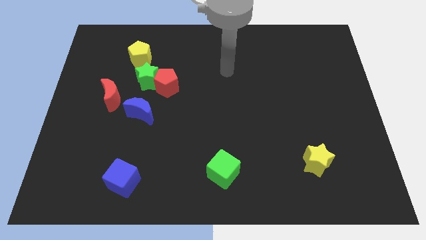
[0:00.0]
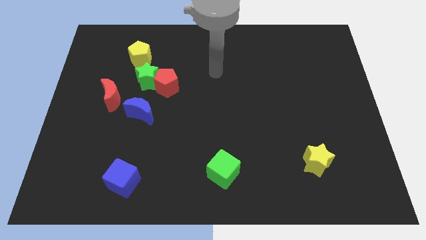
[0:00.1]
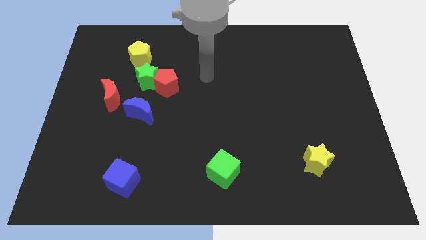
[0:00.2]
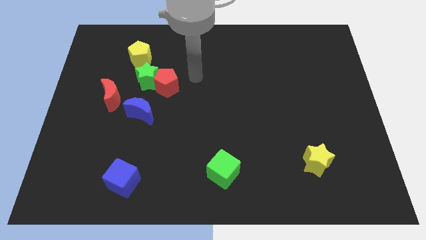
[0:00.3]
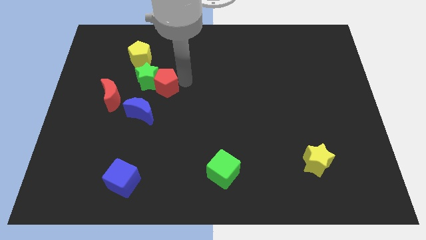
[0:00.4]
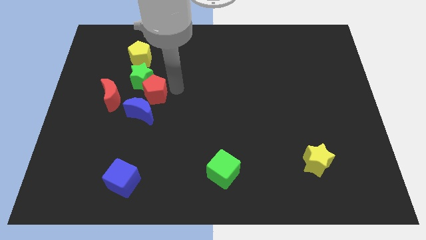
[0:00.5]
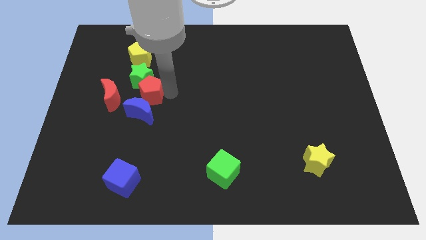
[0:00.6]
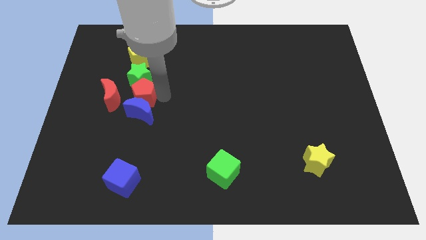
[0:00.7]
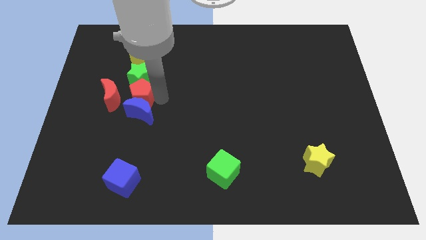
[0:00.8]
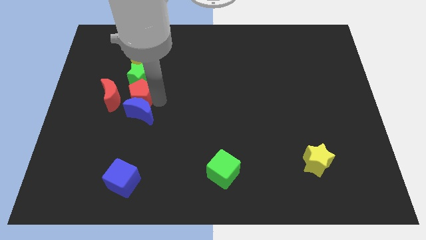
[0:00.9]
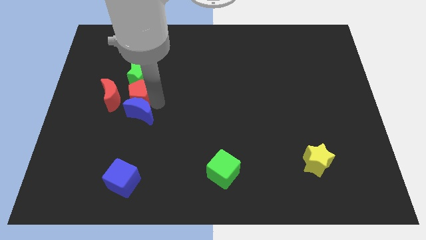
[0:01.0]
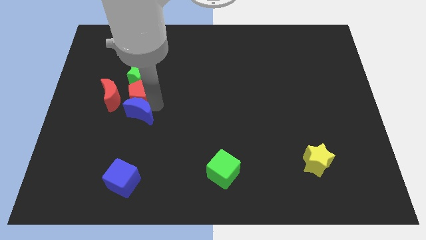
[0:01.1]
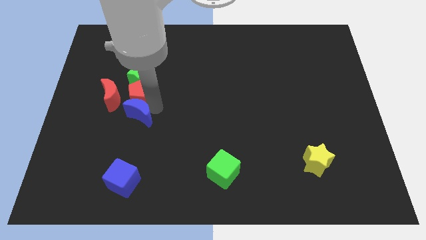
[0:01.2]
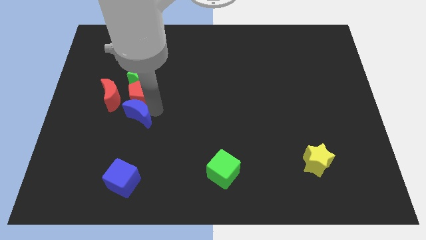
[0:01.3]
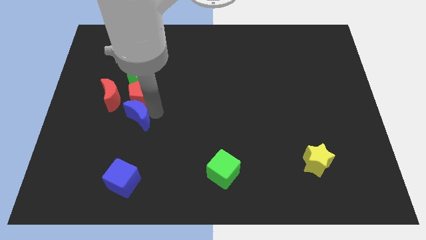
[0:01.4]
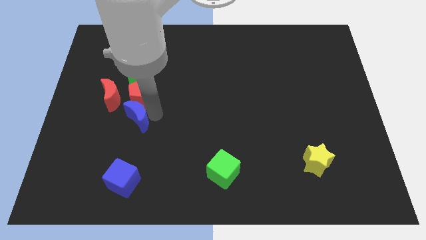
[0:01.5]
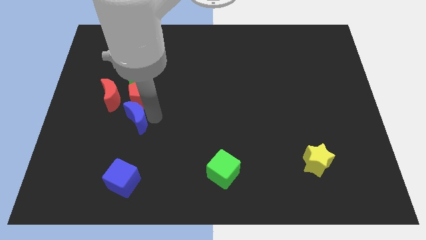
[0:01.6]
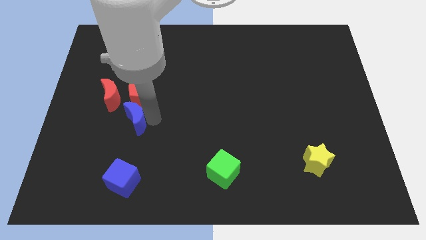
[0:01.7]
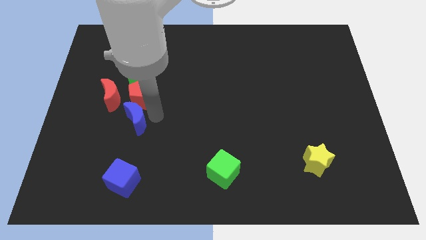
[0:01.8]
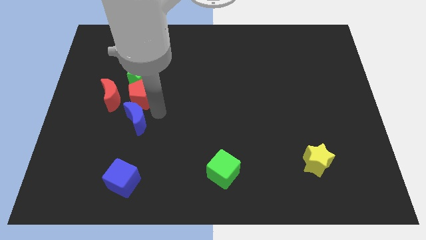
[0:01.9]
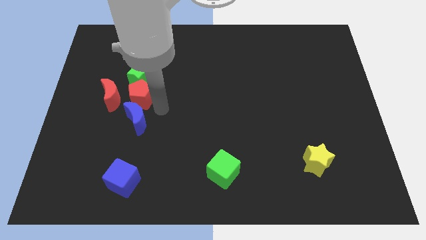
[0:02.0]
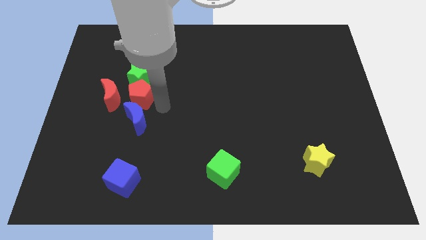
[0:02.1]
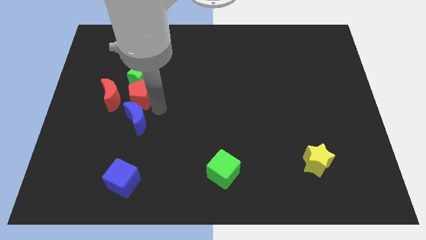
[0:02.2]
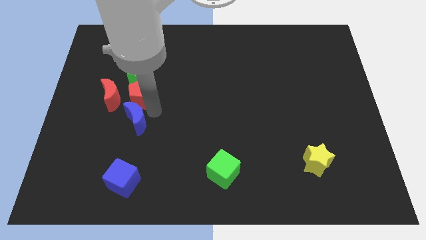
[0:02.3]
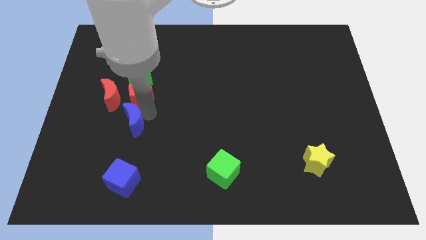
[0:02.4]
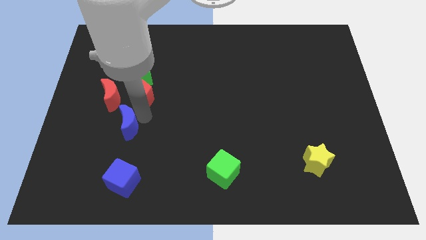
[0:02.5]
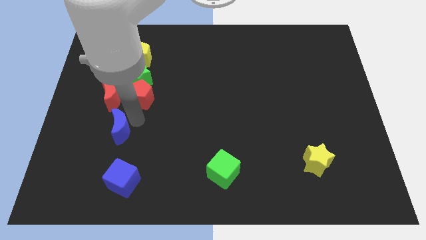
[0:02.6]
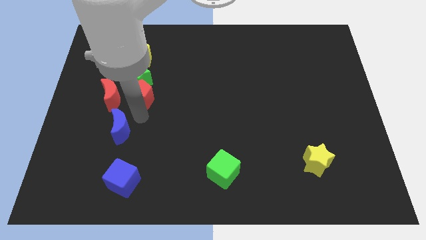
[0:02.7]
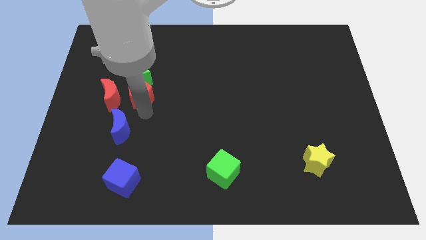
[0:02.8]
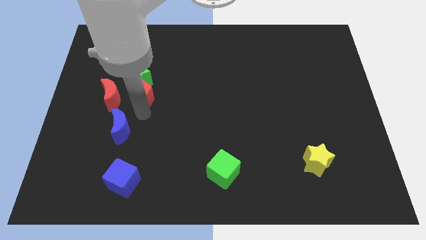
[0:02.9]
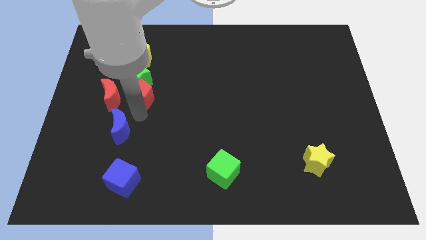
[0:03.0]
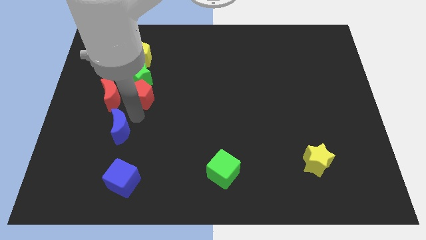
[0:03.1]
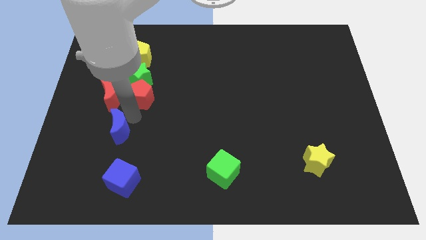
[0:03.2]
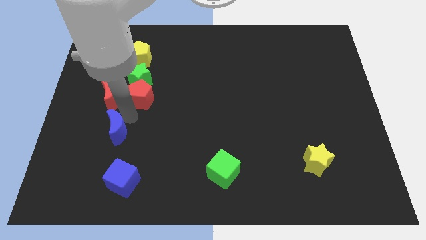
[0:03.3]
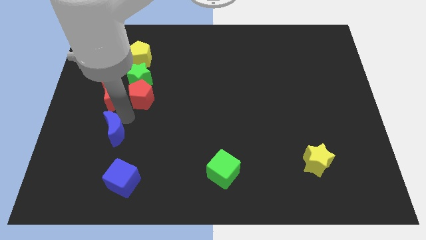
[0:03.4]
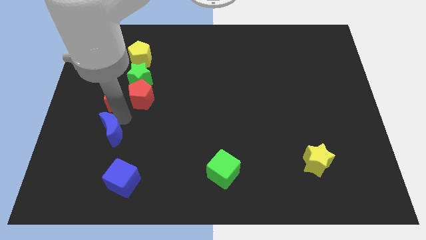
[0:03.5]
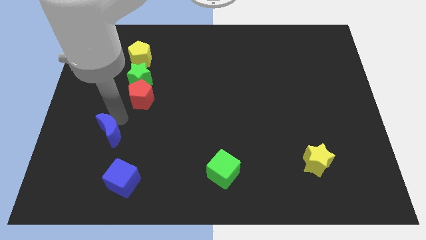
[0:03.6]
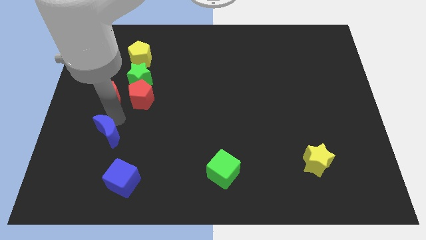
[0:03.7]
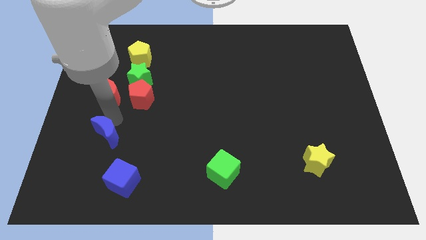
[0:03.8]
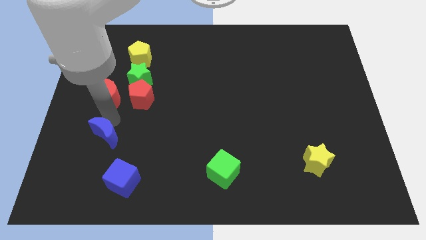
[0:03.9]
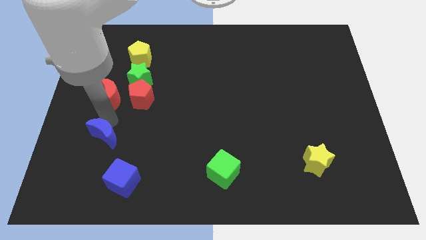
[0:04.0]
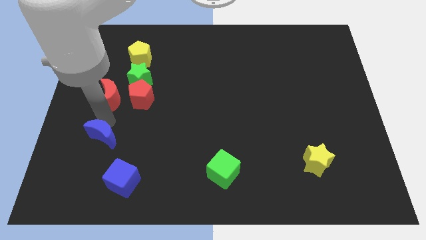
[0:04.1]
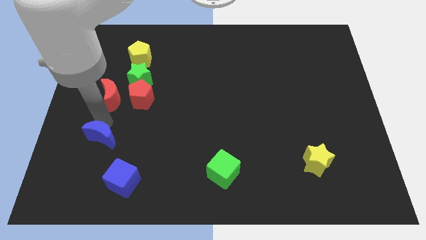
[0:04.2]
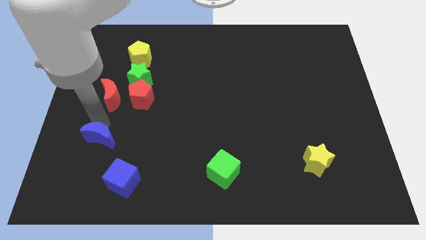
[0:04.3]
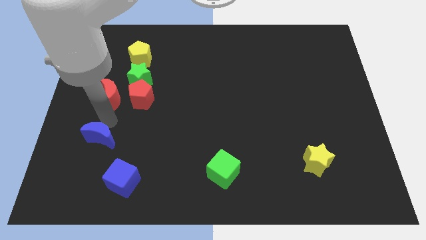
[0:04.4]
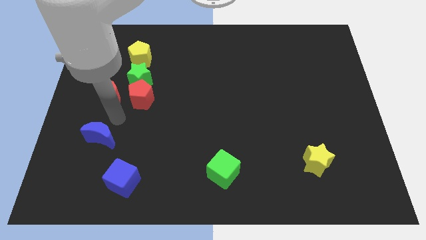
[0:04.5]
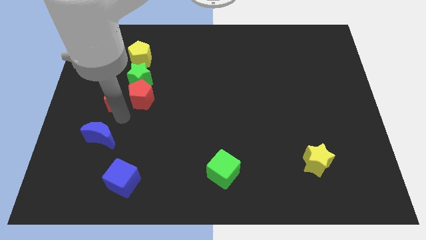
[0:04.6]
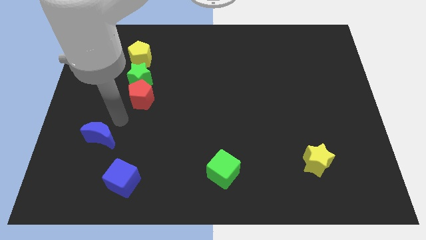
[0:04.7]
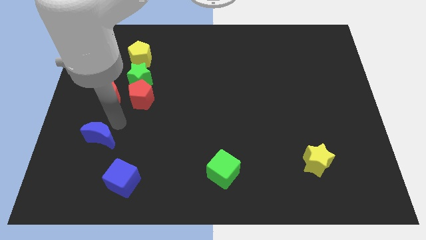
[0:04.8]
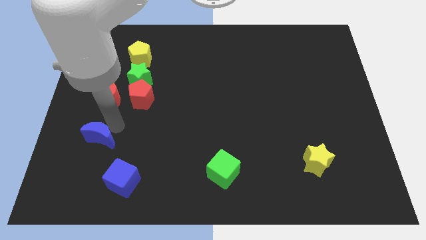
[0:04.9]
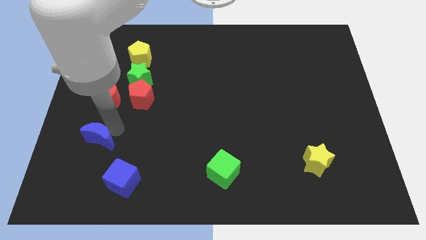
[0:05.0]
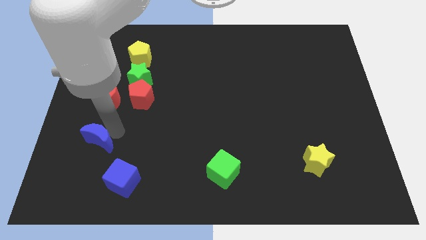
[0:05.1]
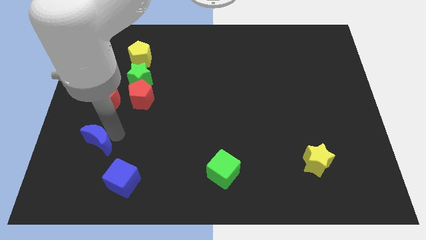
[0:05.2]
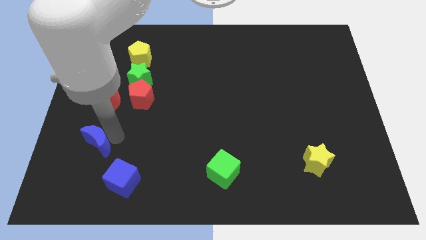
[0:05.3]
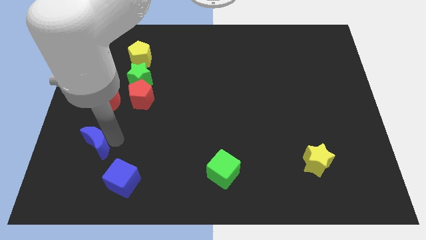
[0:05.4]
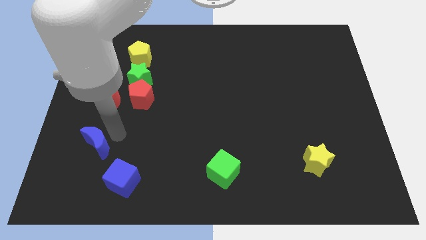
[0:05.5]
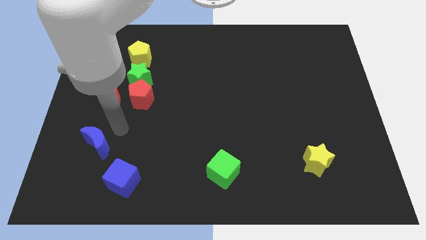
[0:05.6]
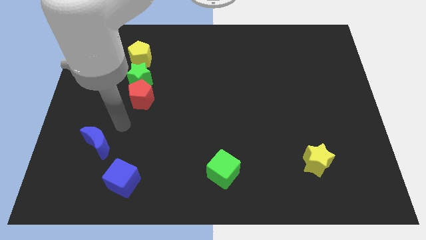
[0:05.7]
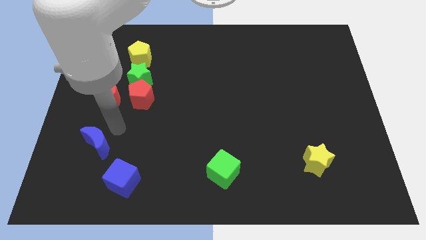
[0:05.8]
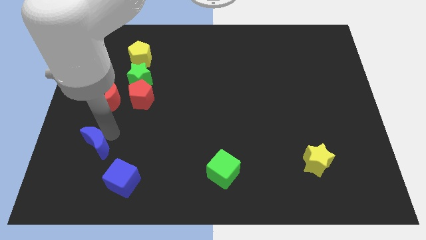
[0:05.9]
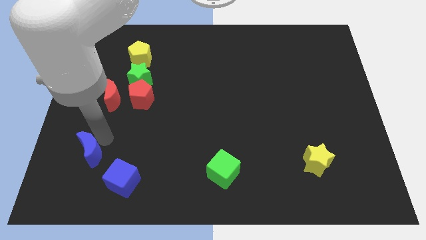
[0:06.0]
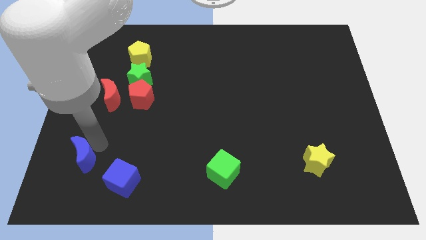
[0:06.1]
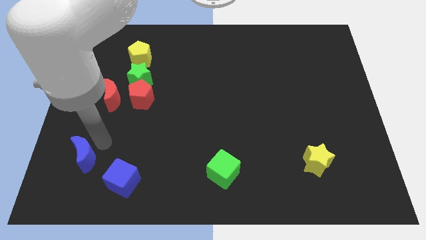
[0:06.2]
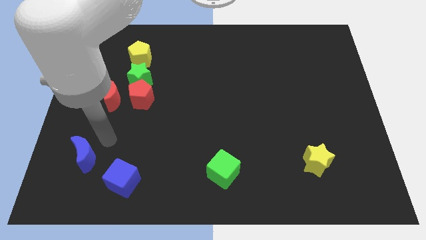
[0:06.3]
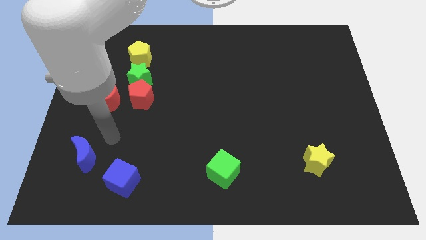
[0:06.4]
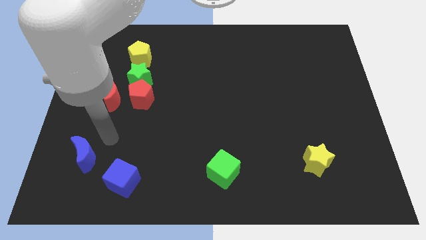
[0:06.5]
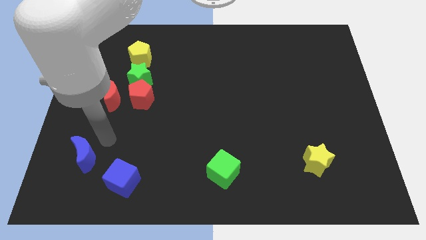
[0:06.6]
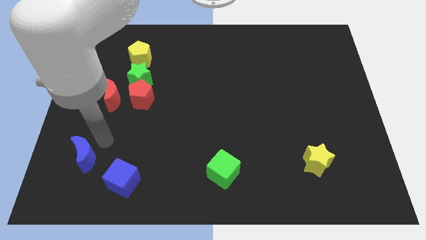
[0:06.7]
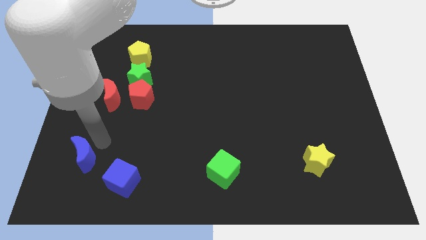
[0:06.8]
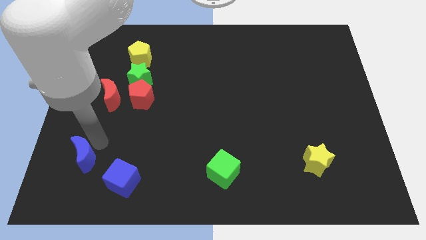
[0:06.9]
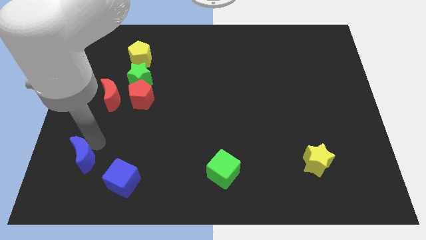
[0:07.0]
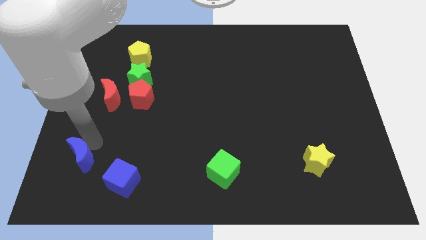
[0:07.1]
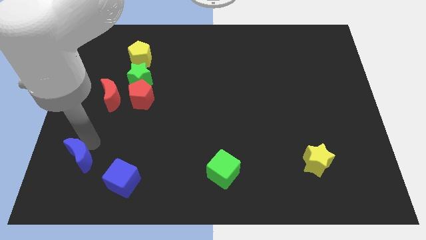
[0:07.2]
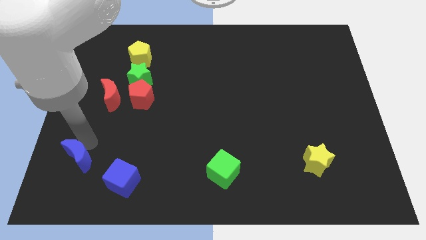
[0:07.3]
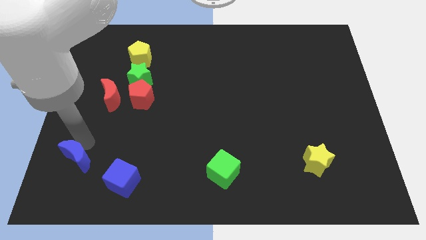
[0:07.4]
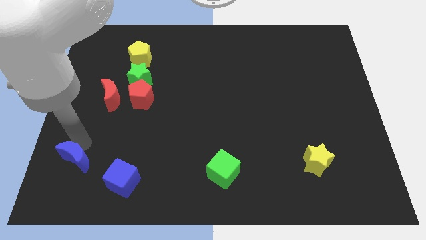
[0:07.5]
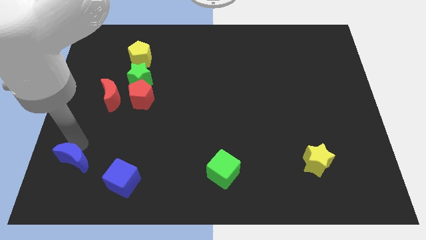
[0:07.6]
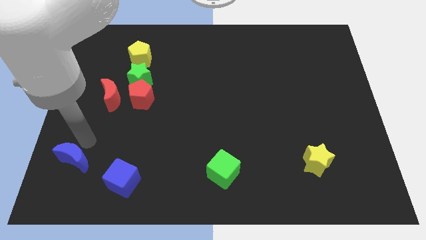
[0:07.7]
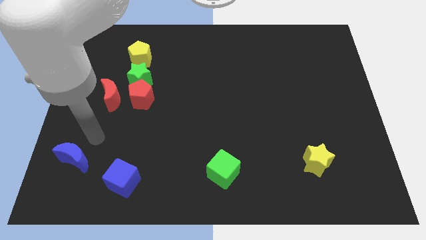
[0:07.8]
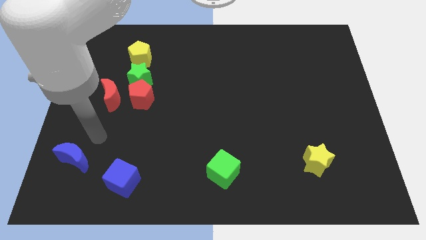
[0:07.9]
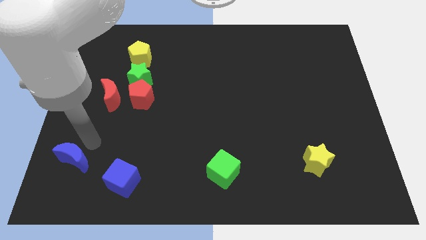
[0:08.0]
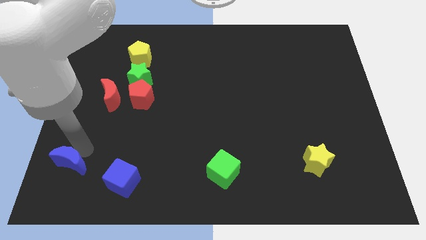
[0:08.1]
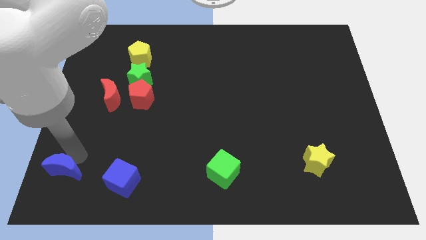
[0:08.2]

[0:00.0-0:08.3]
push the blue moon to the bottom left of the board
